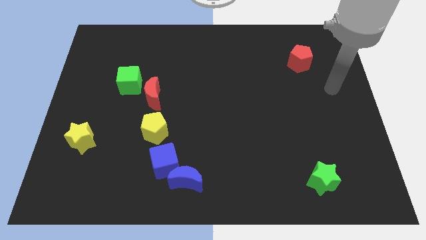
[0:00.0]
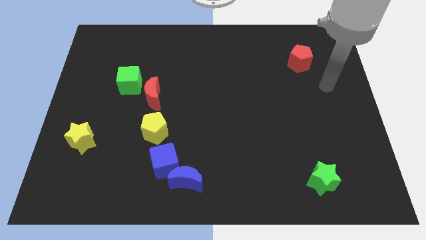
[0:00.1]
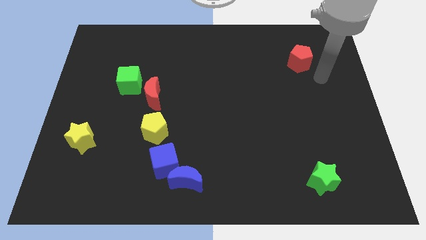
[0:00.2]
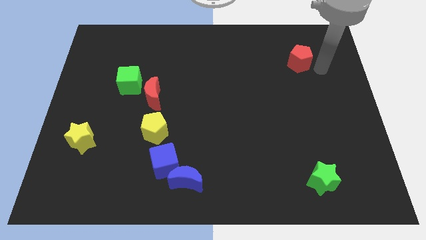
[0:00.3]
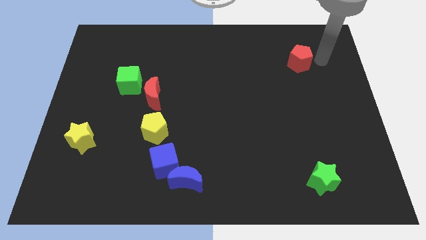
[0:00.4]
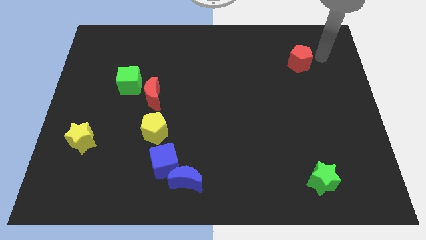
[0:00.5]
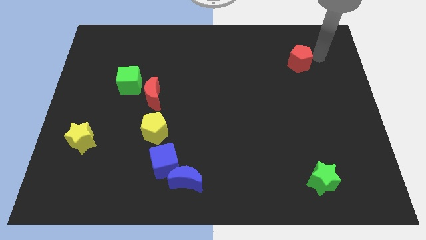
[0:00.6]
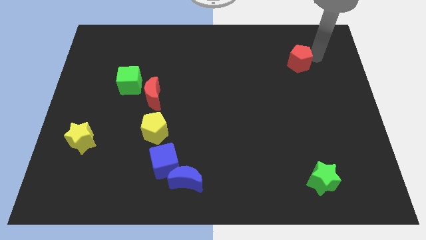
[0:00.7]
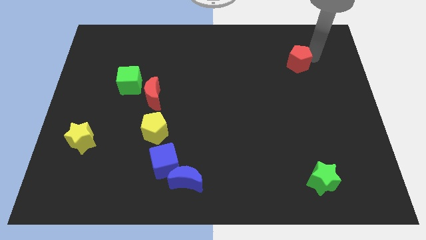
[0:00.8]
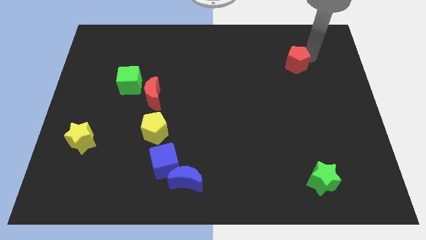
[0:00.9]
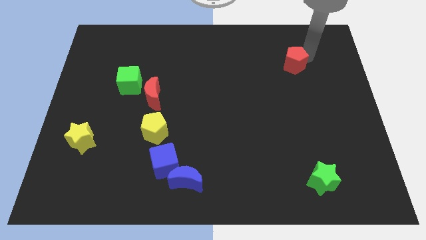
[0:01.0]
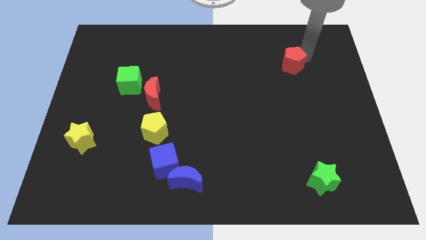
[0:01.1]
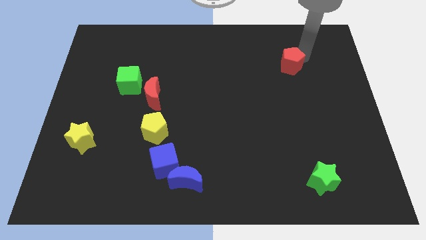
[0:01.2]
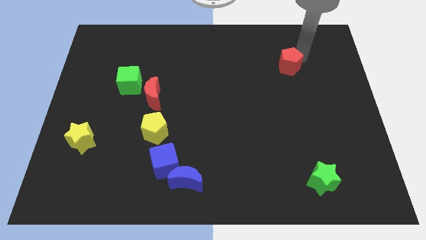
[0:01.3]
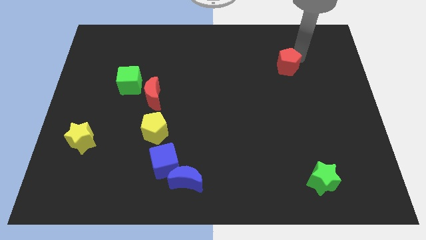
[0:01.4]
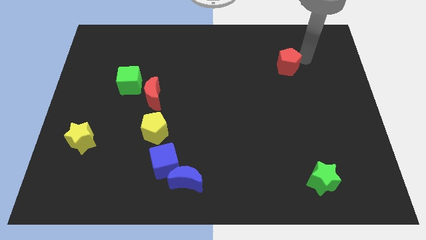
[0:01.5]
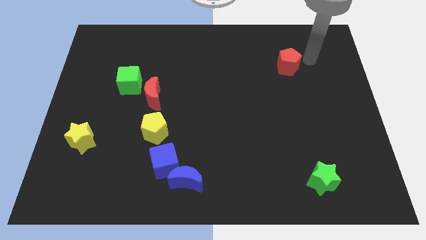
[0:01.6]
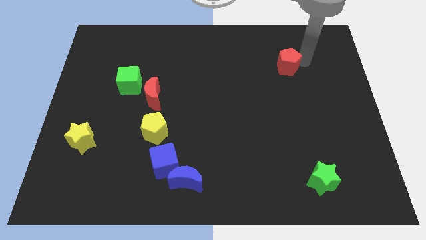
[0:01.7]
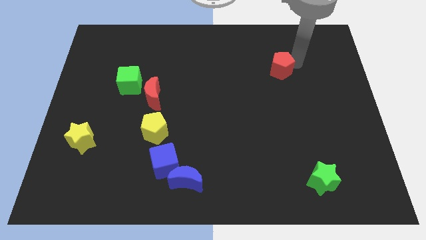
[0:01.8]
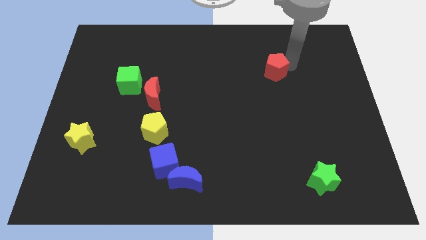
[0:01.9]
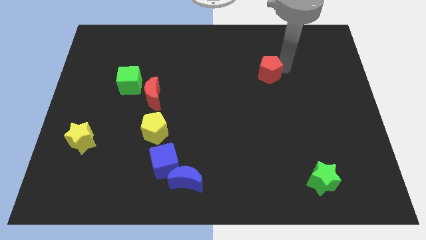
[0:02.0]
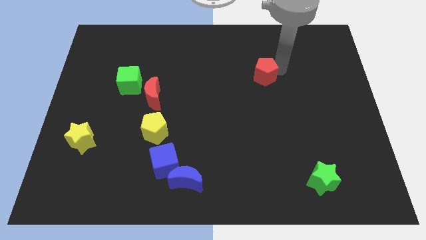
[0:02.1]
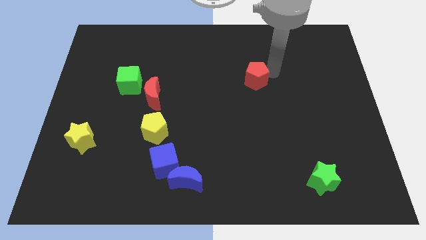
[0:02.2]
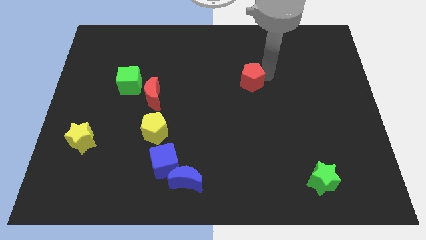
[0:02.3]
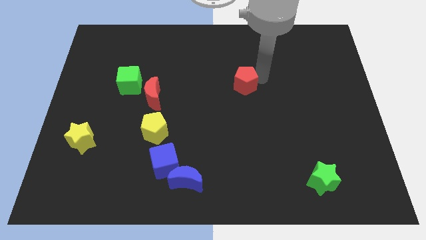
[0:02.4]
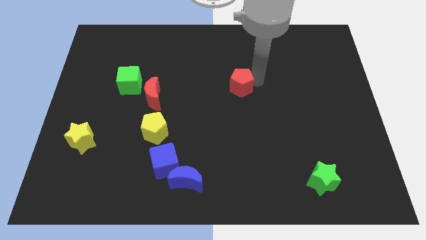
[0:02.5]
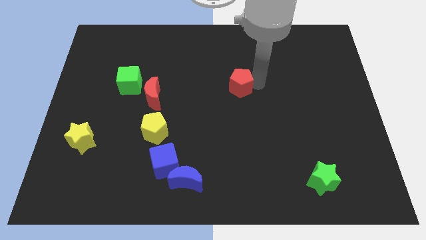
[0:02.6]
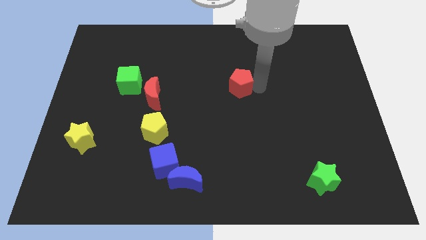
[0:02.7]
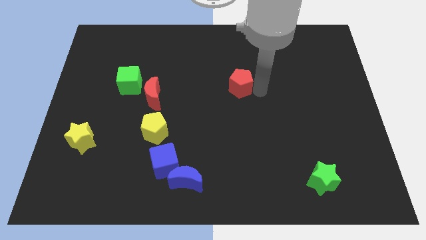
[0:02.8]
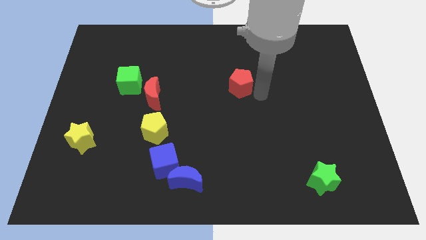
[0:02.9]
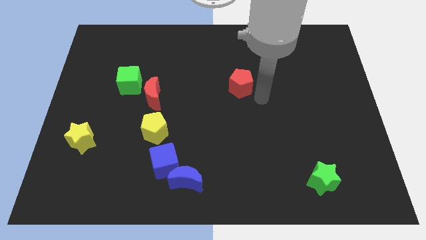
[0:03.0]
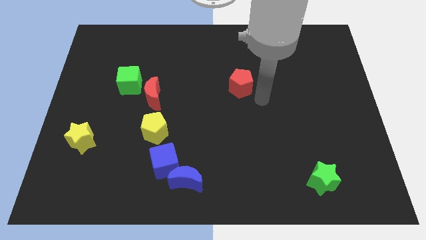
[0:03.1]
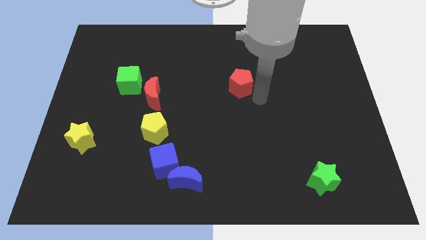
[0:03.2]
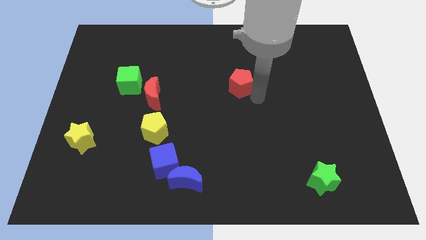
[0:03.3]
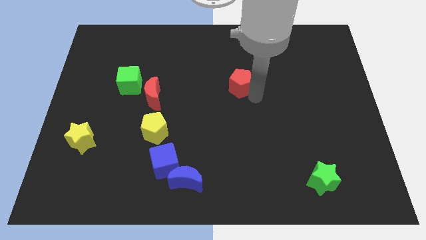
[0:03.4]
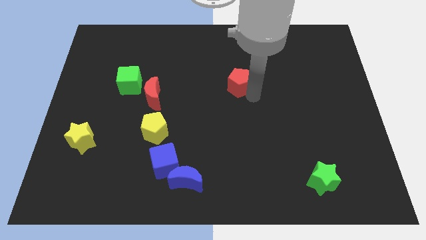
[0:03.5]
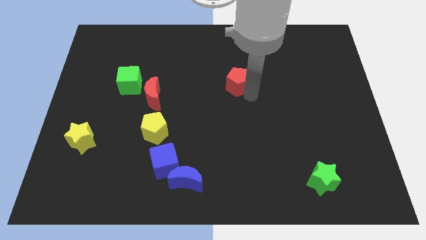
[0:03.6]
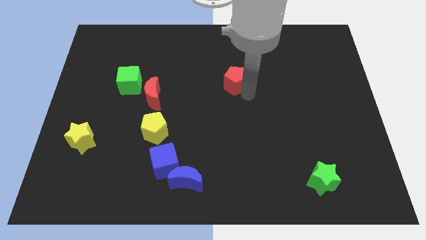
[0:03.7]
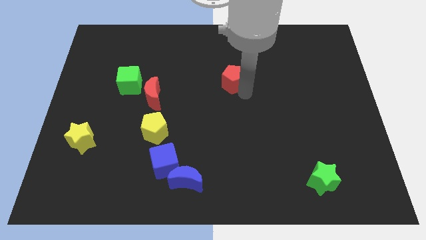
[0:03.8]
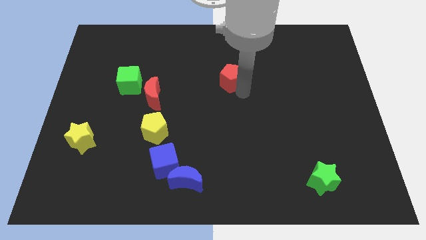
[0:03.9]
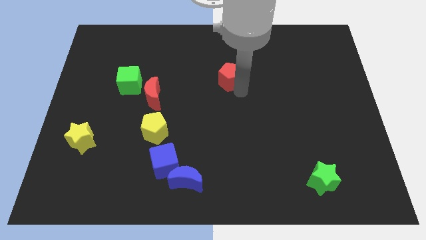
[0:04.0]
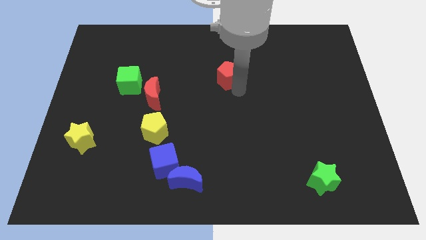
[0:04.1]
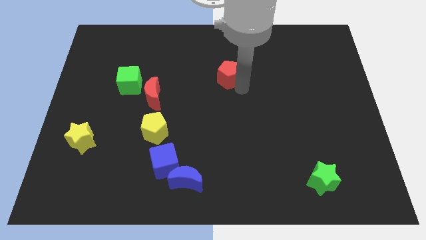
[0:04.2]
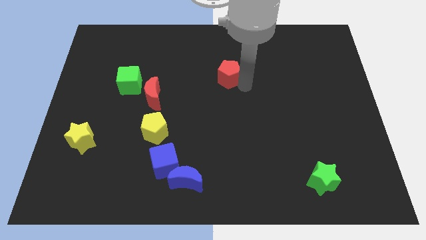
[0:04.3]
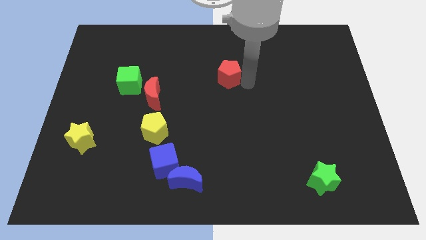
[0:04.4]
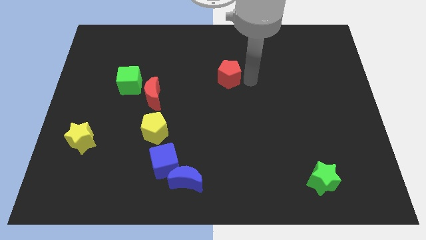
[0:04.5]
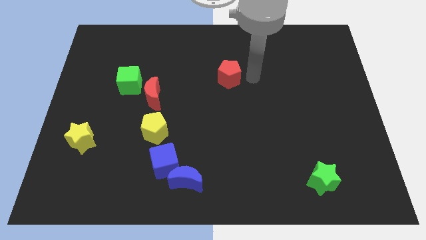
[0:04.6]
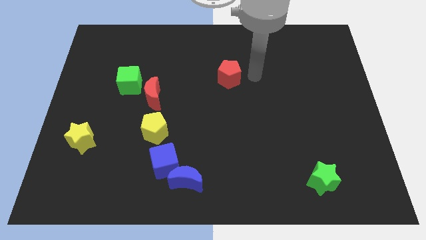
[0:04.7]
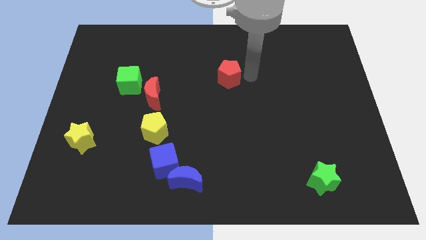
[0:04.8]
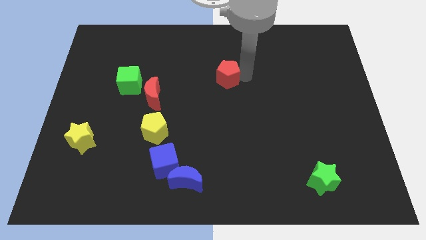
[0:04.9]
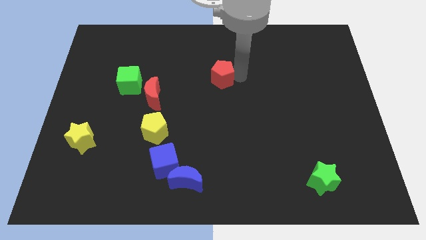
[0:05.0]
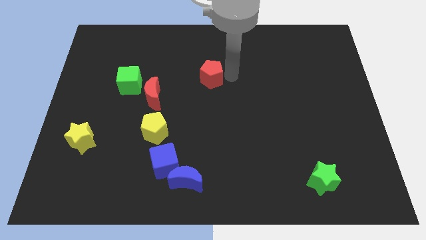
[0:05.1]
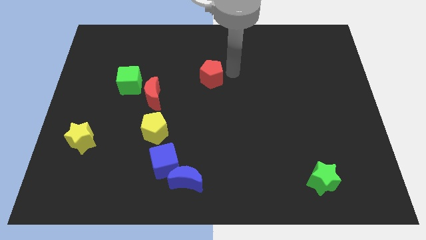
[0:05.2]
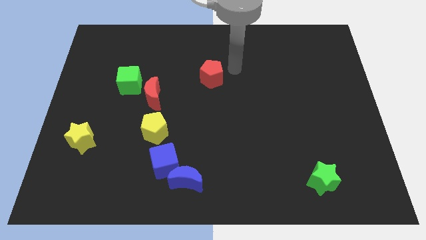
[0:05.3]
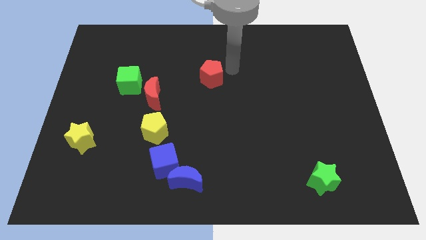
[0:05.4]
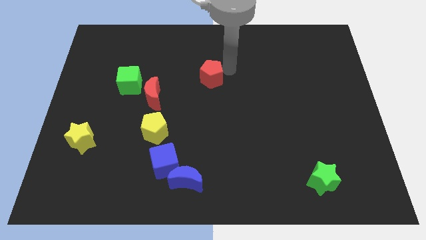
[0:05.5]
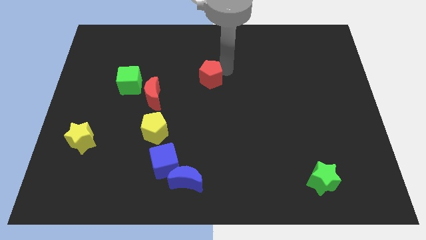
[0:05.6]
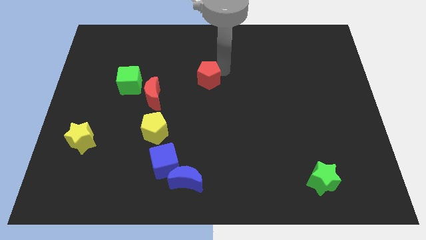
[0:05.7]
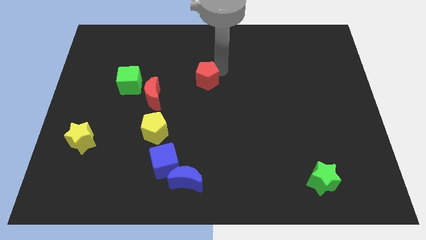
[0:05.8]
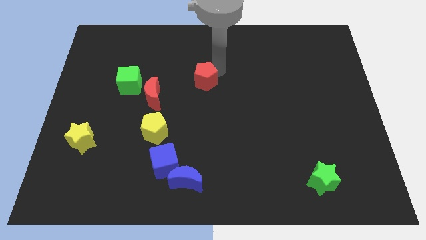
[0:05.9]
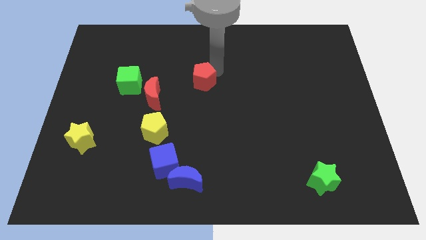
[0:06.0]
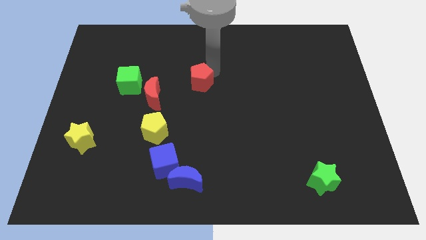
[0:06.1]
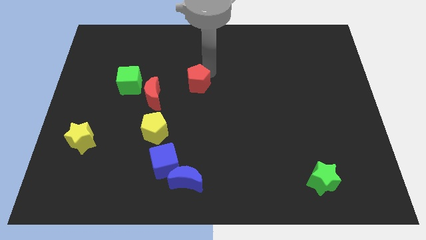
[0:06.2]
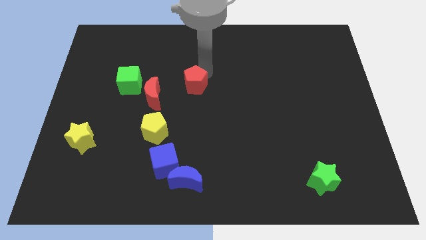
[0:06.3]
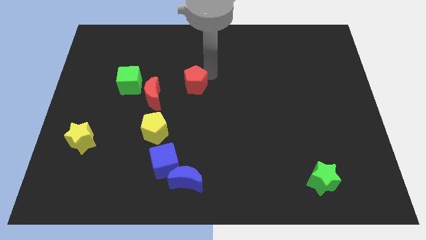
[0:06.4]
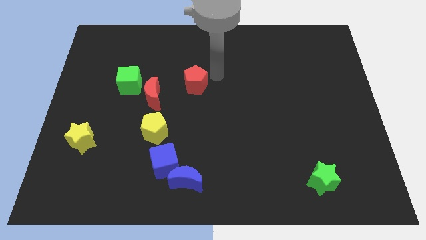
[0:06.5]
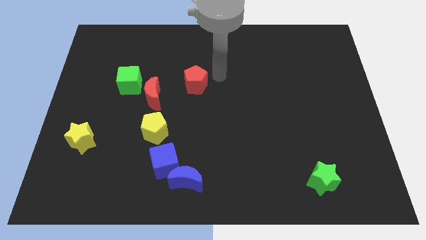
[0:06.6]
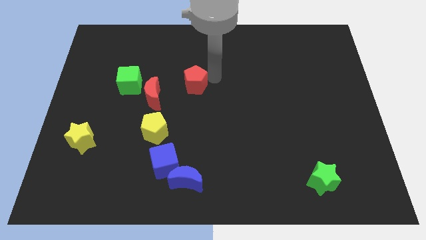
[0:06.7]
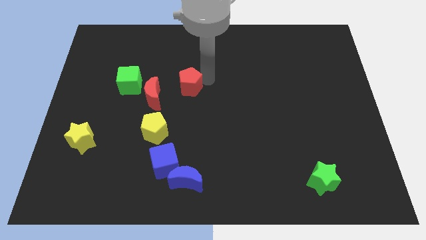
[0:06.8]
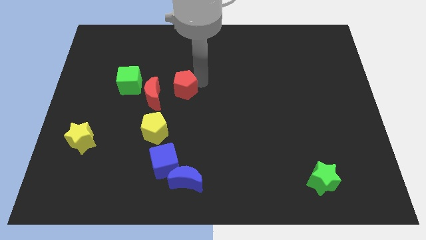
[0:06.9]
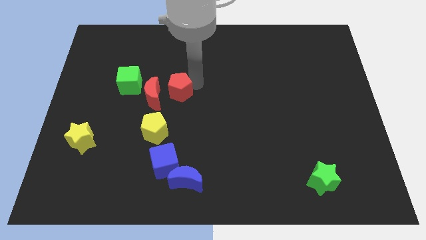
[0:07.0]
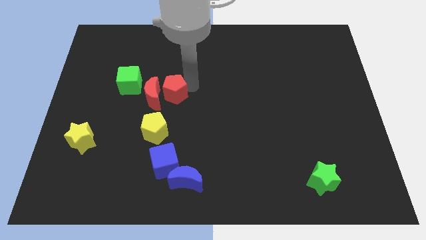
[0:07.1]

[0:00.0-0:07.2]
slide the red pentagon close to the red moon

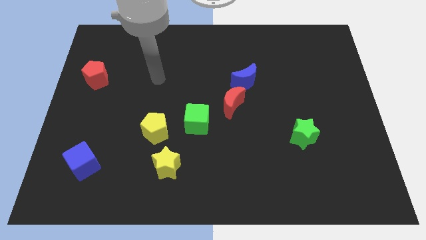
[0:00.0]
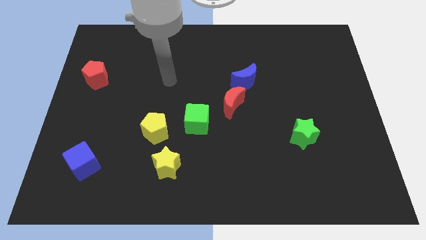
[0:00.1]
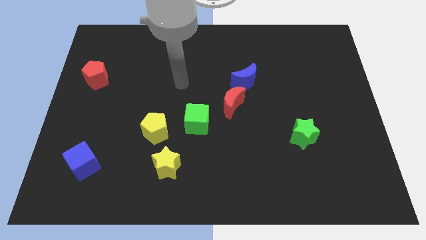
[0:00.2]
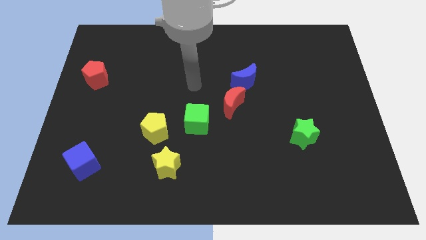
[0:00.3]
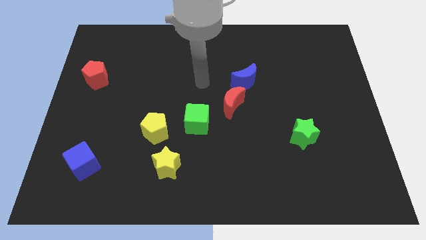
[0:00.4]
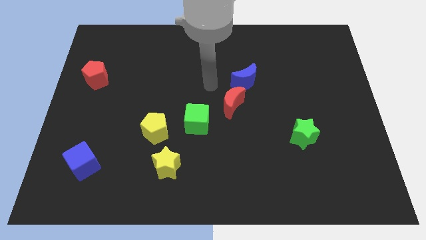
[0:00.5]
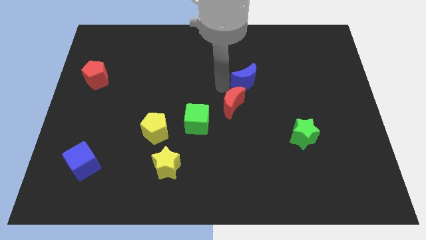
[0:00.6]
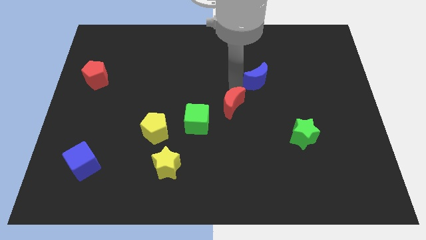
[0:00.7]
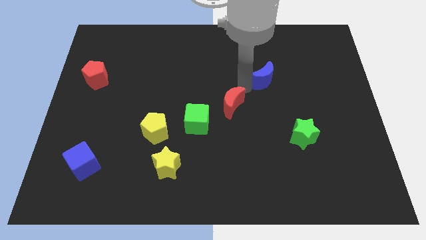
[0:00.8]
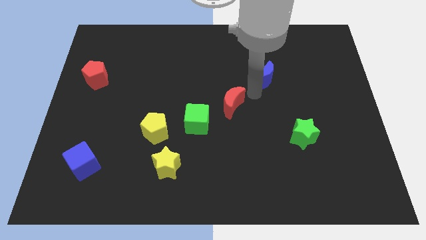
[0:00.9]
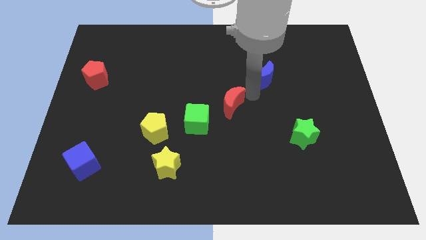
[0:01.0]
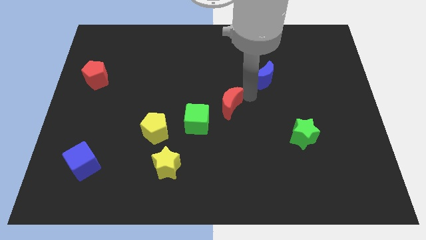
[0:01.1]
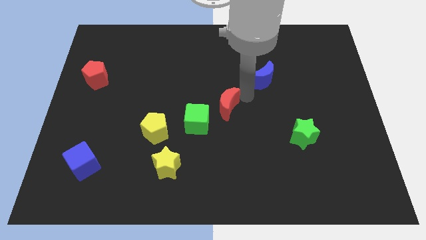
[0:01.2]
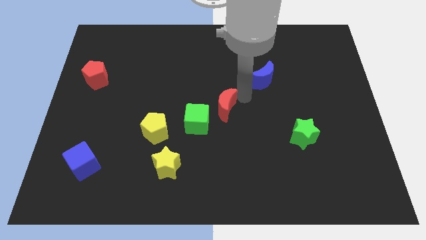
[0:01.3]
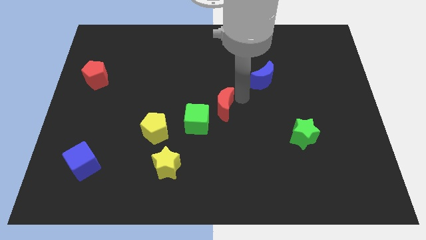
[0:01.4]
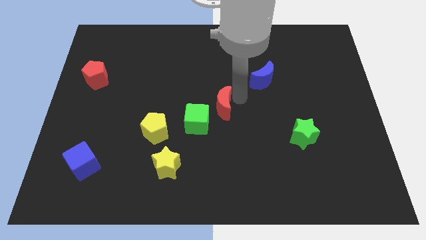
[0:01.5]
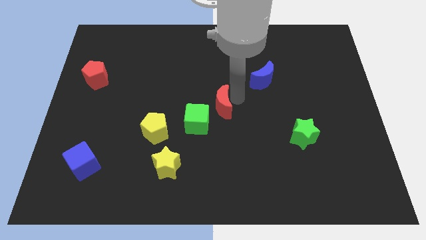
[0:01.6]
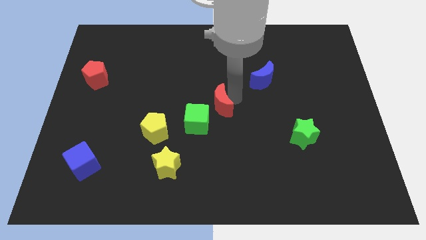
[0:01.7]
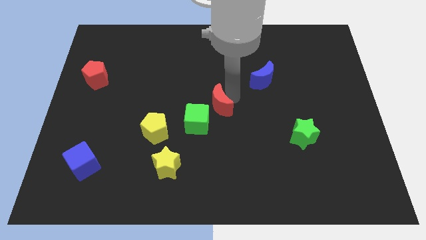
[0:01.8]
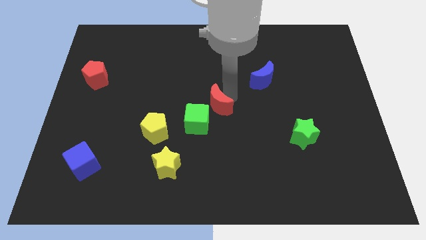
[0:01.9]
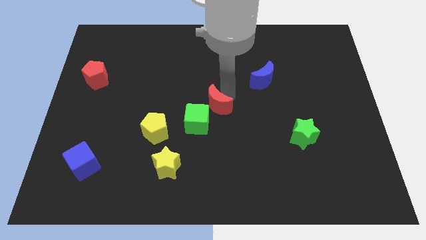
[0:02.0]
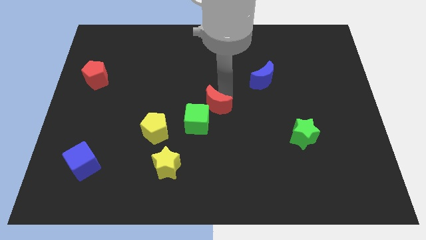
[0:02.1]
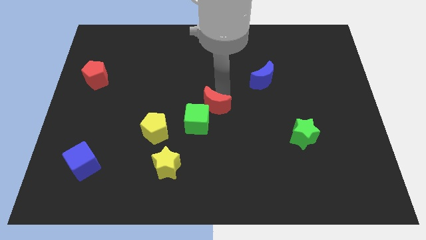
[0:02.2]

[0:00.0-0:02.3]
move the red moon towards the green cube
